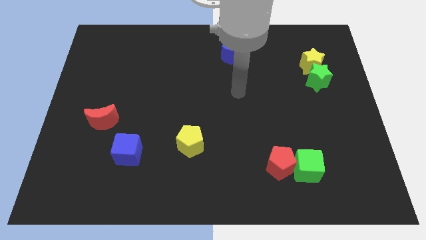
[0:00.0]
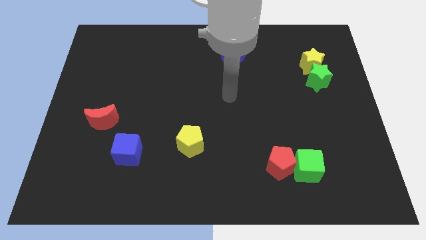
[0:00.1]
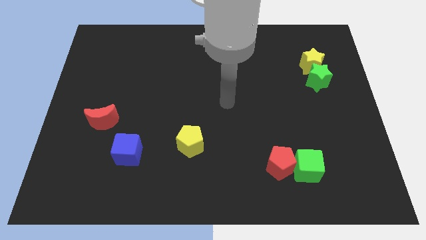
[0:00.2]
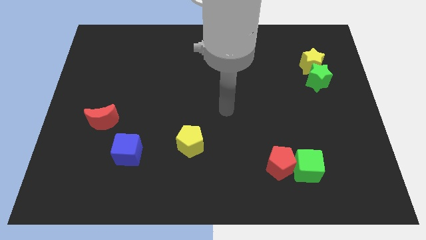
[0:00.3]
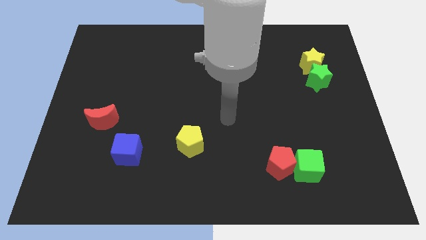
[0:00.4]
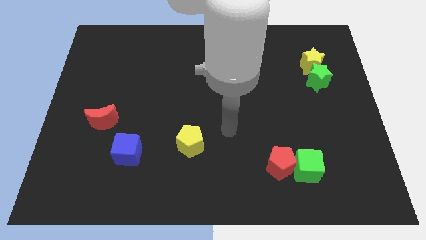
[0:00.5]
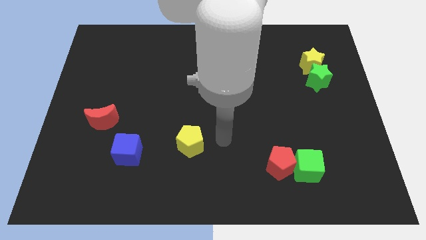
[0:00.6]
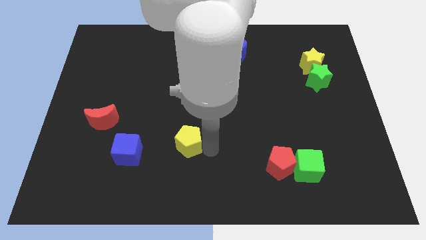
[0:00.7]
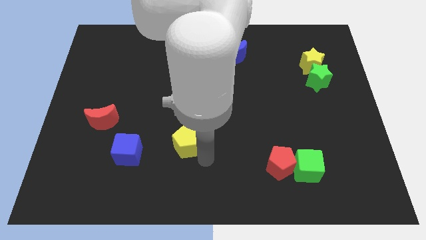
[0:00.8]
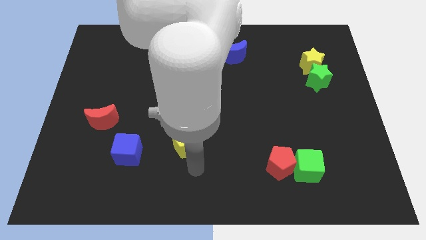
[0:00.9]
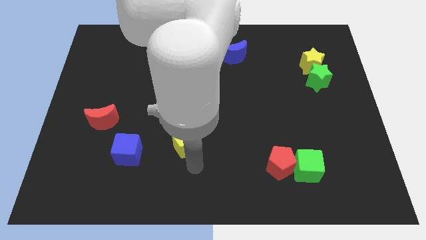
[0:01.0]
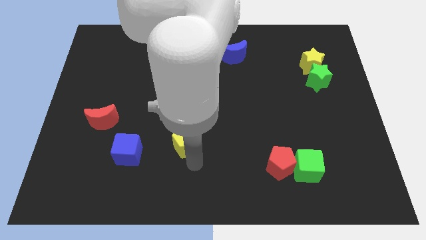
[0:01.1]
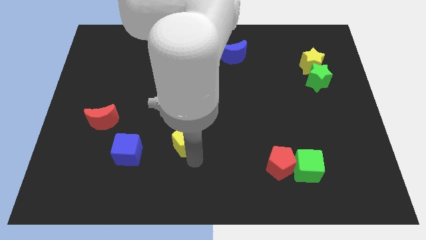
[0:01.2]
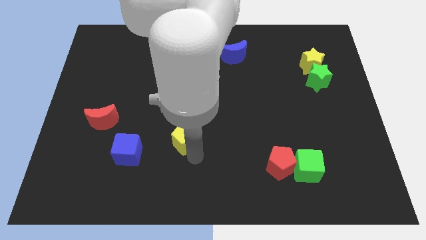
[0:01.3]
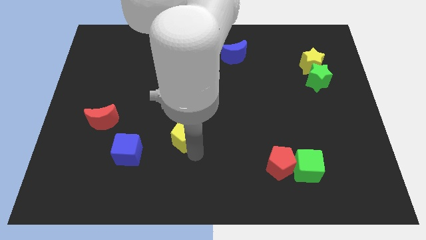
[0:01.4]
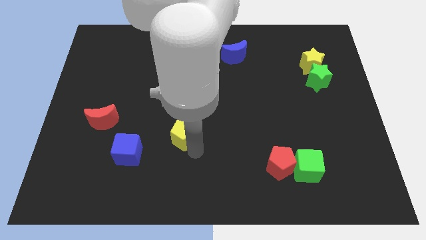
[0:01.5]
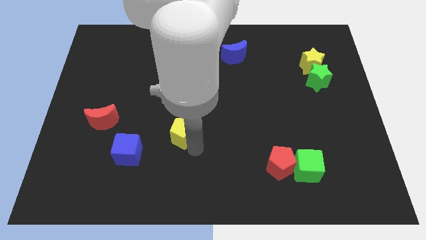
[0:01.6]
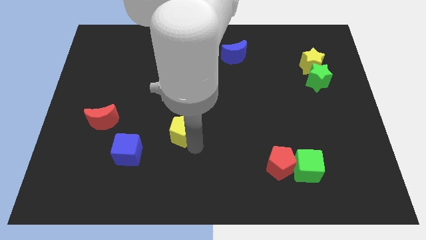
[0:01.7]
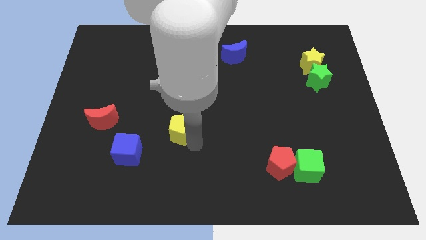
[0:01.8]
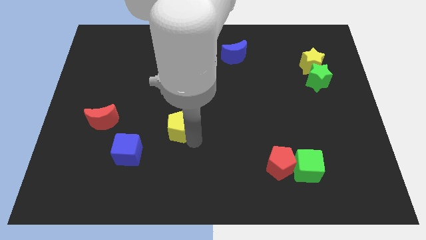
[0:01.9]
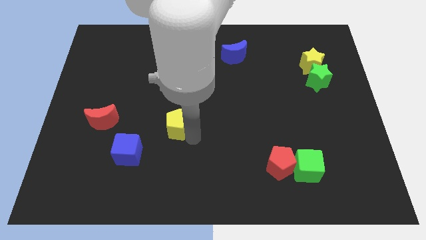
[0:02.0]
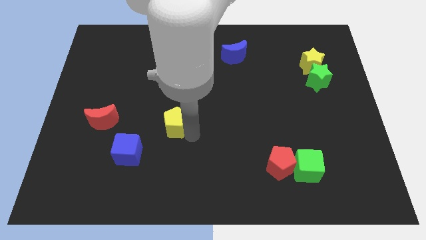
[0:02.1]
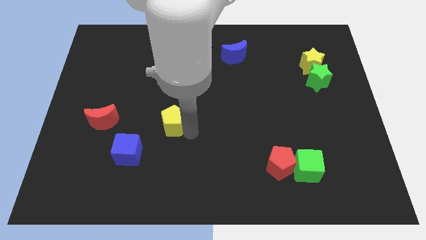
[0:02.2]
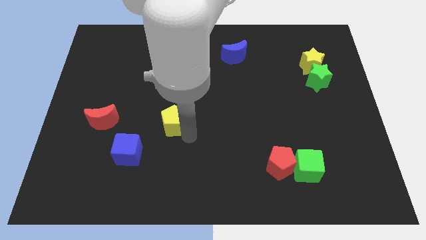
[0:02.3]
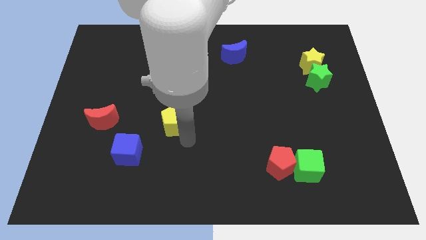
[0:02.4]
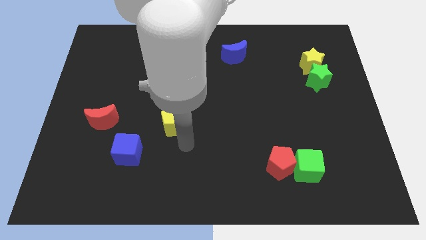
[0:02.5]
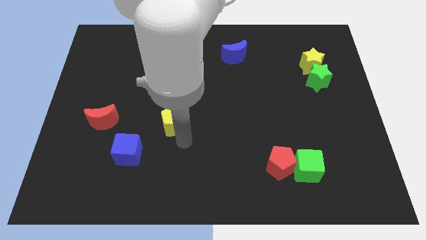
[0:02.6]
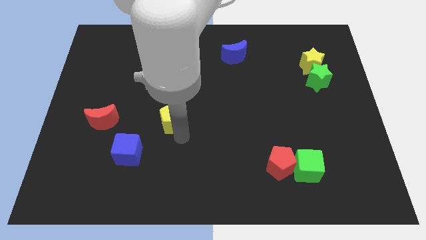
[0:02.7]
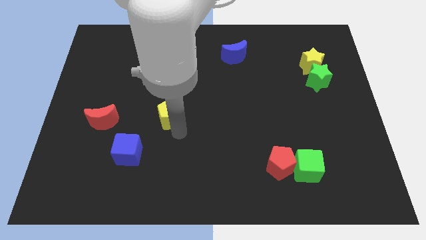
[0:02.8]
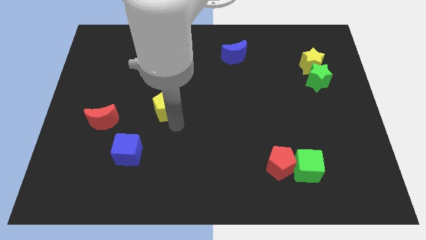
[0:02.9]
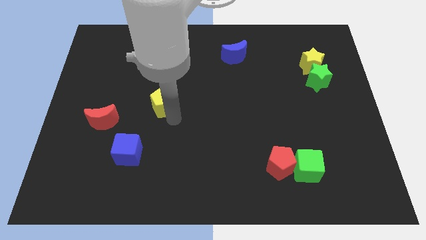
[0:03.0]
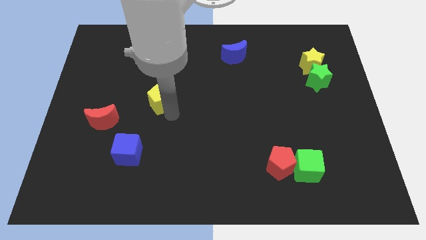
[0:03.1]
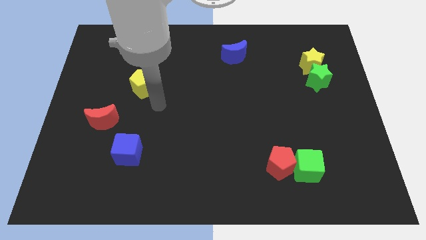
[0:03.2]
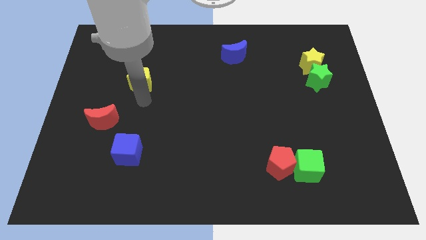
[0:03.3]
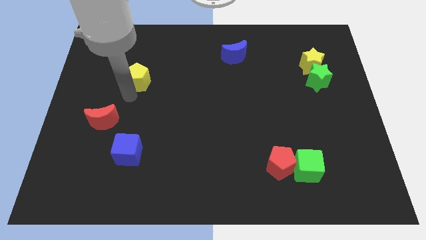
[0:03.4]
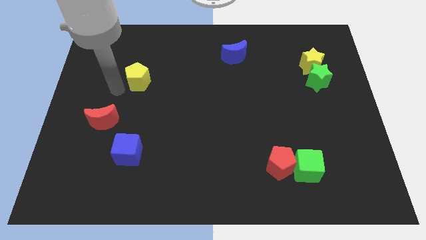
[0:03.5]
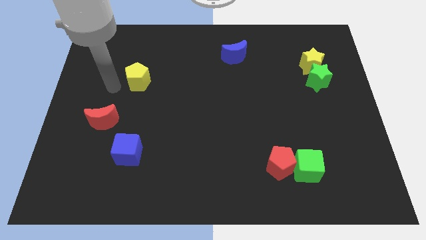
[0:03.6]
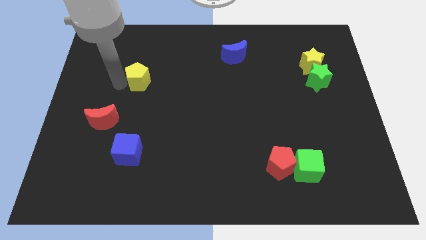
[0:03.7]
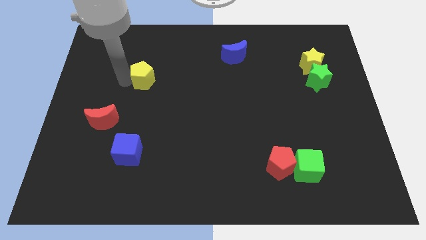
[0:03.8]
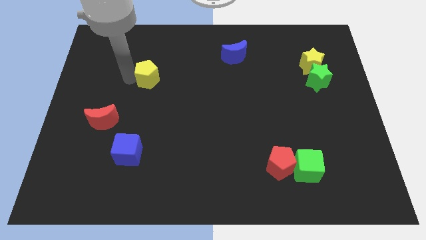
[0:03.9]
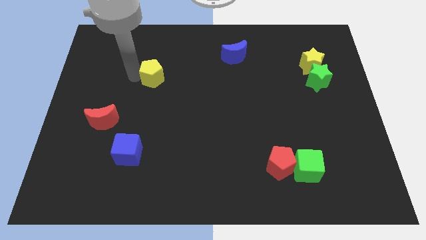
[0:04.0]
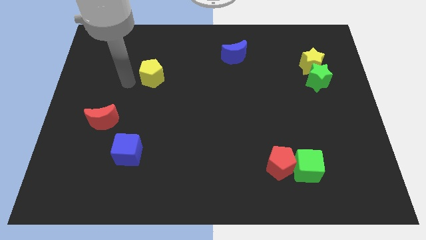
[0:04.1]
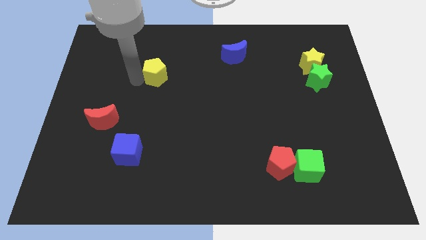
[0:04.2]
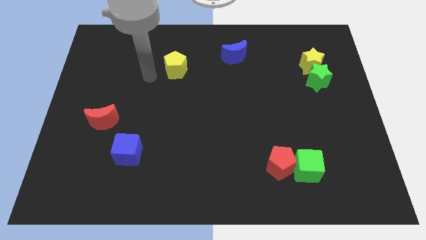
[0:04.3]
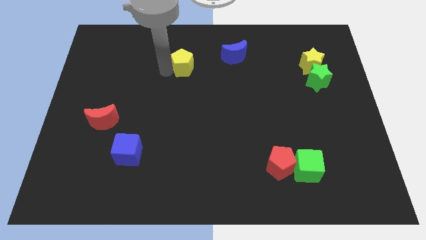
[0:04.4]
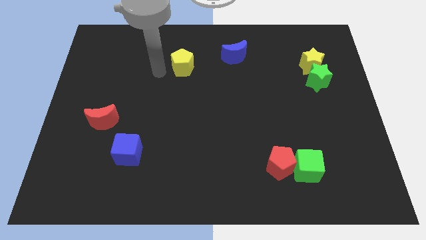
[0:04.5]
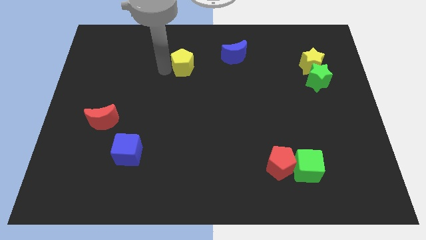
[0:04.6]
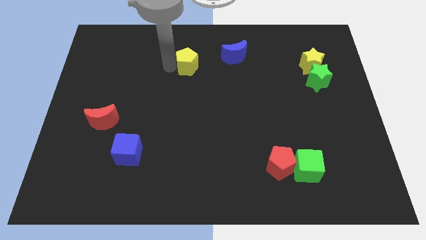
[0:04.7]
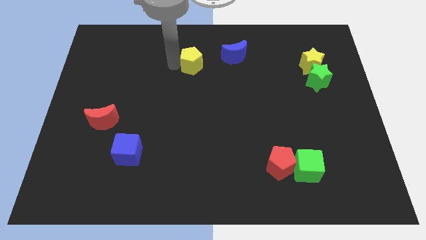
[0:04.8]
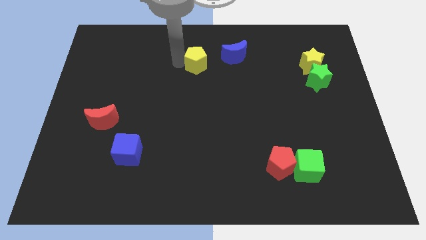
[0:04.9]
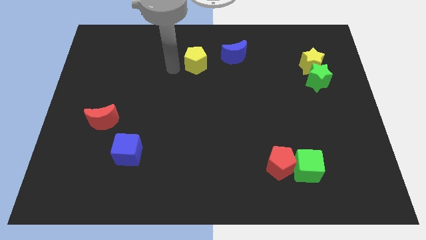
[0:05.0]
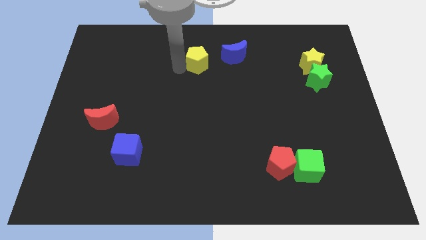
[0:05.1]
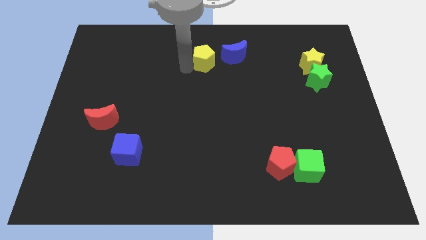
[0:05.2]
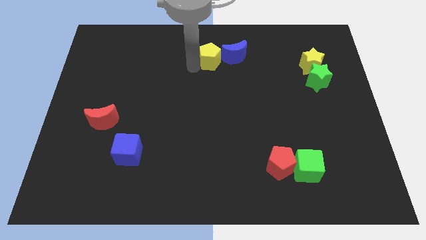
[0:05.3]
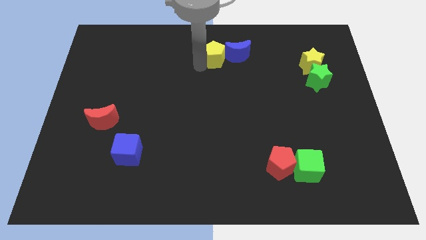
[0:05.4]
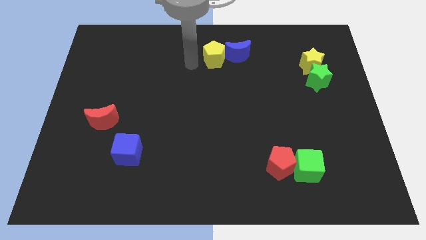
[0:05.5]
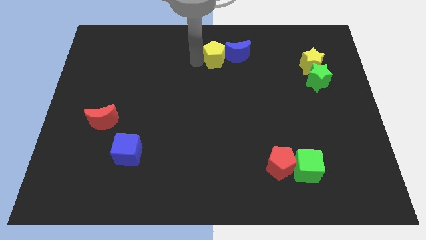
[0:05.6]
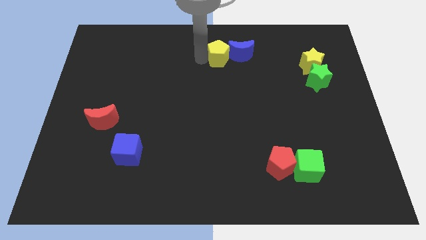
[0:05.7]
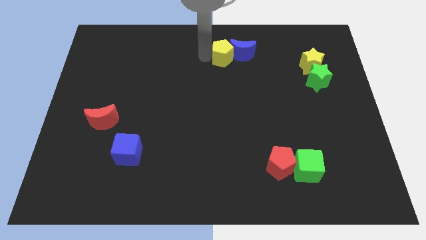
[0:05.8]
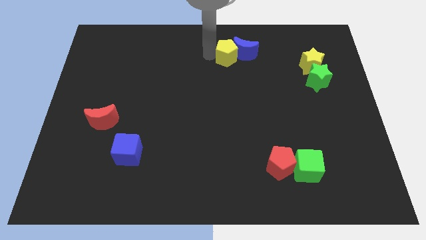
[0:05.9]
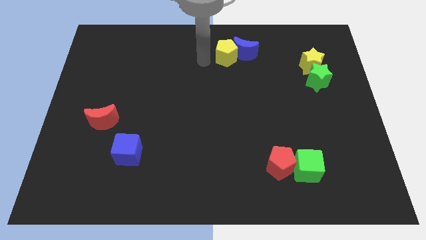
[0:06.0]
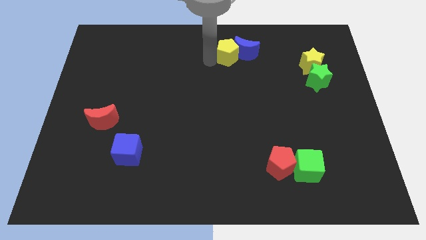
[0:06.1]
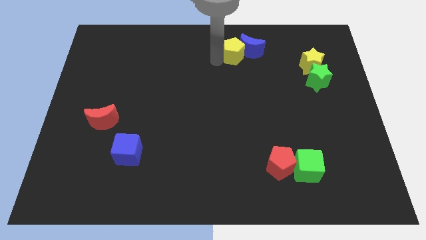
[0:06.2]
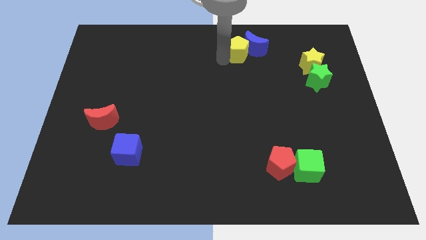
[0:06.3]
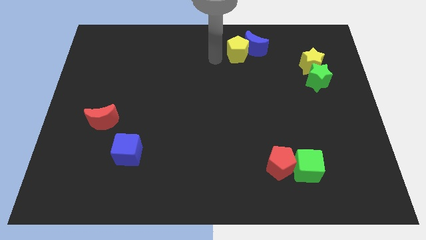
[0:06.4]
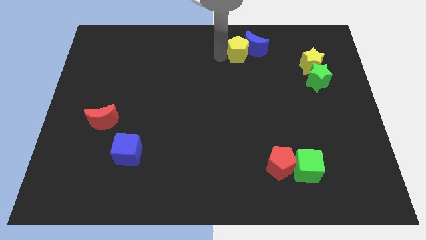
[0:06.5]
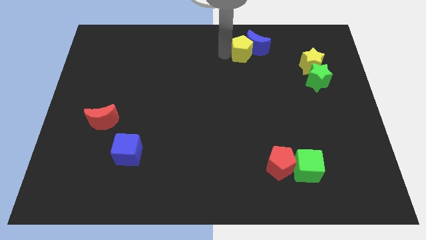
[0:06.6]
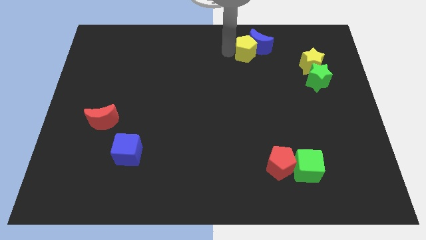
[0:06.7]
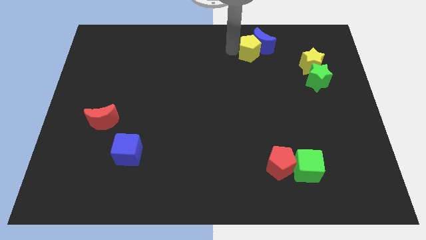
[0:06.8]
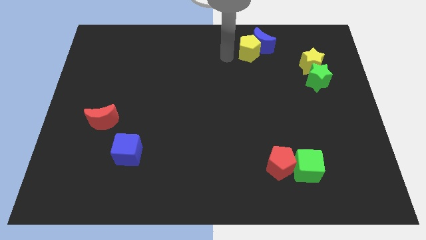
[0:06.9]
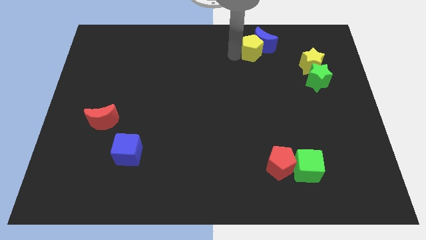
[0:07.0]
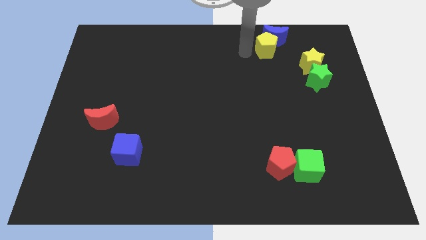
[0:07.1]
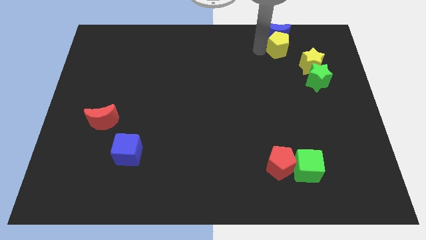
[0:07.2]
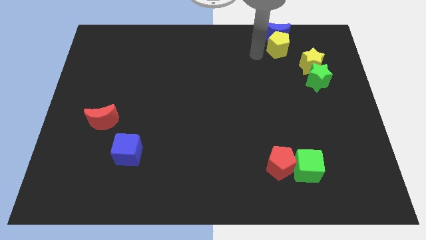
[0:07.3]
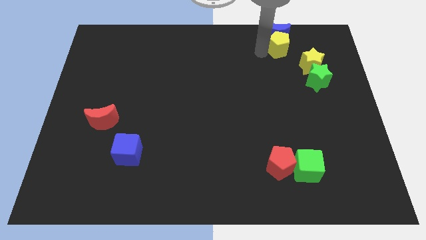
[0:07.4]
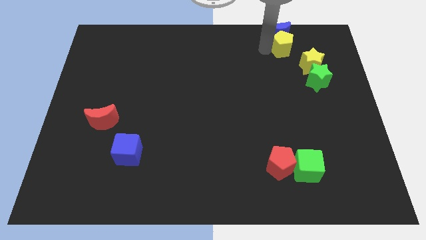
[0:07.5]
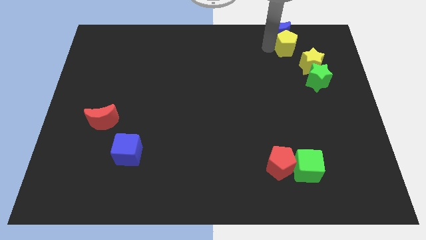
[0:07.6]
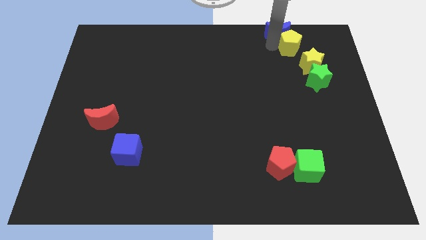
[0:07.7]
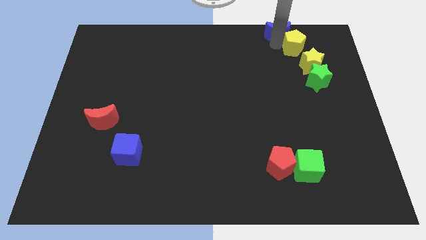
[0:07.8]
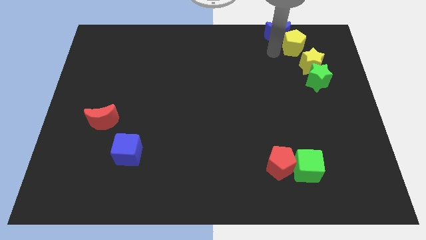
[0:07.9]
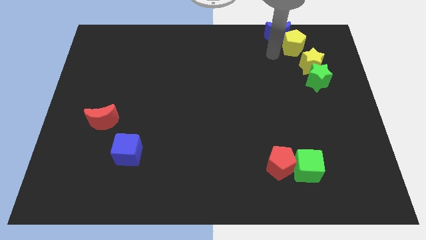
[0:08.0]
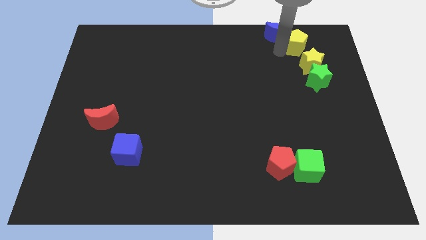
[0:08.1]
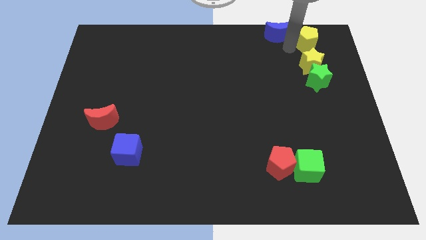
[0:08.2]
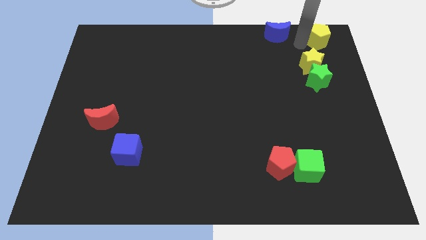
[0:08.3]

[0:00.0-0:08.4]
move the yellow pentagon to the top right of the board
